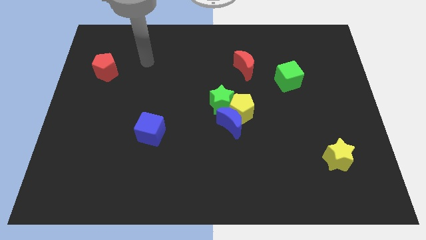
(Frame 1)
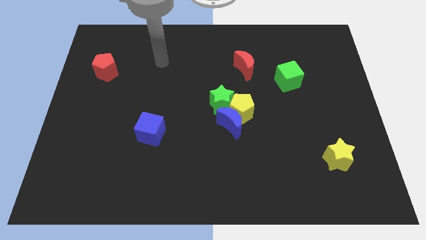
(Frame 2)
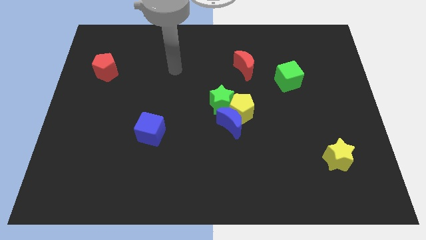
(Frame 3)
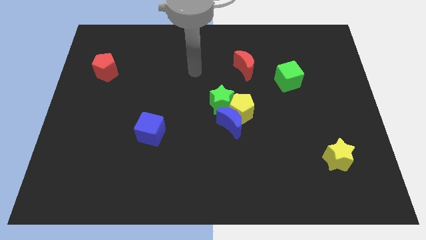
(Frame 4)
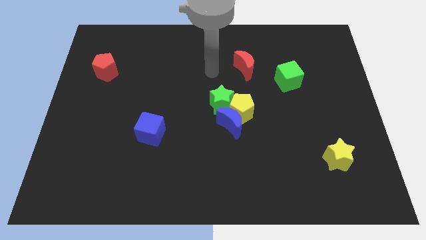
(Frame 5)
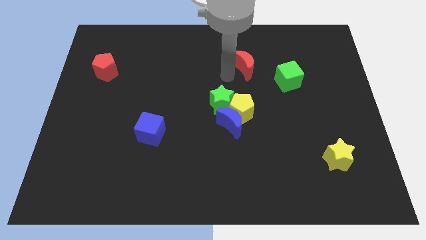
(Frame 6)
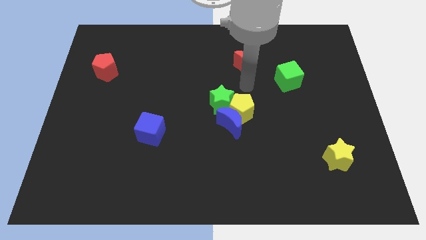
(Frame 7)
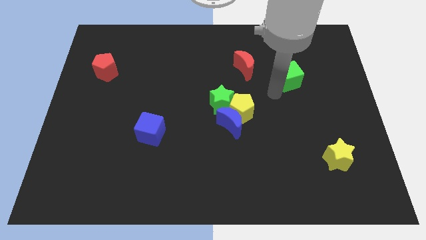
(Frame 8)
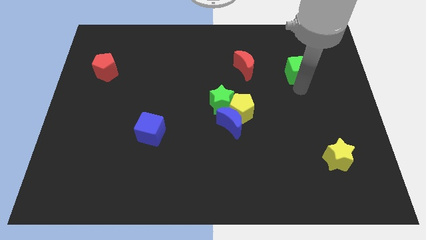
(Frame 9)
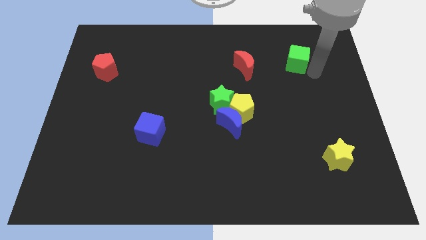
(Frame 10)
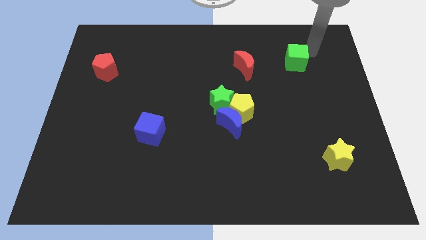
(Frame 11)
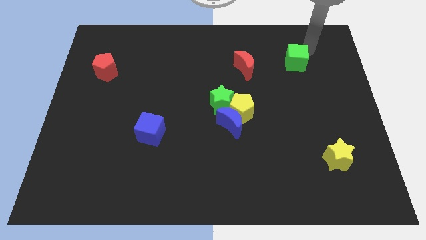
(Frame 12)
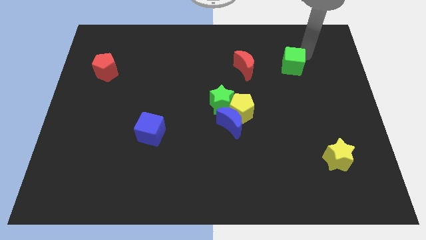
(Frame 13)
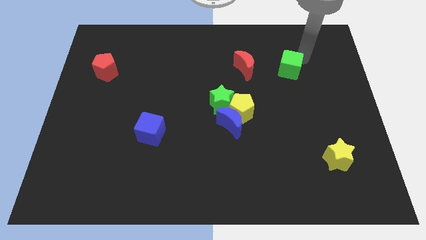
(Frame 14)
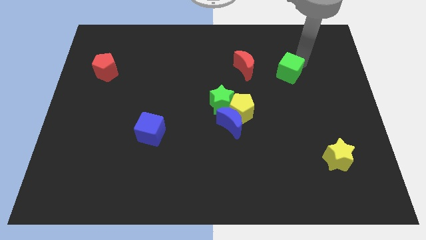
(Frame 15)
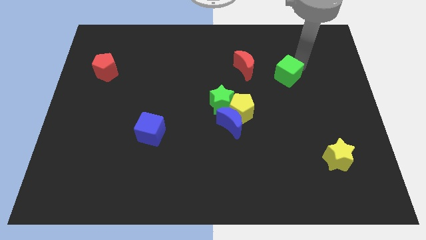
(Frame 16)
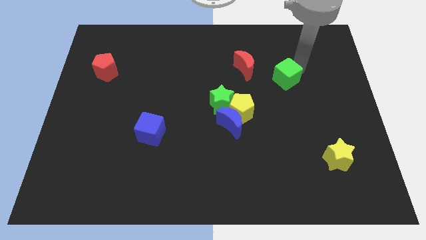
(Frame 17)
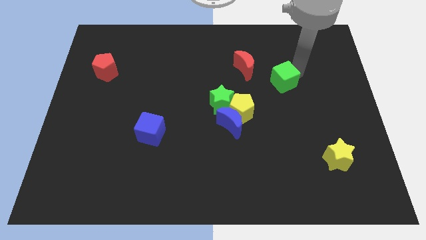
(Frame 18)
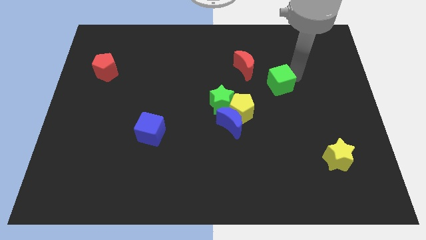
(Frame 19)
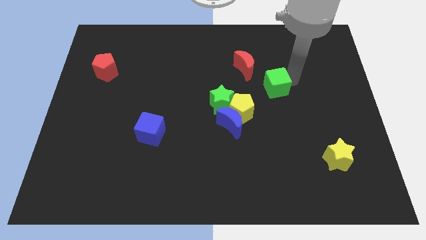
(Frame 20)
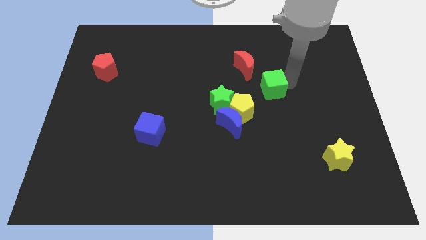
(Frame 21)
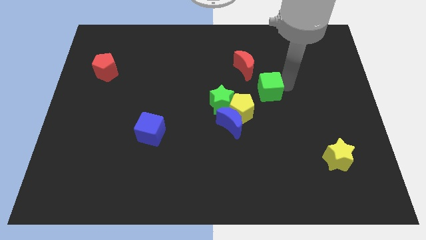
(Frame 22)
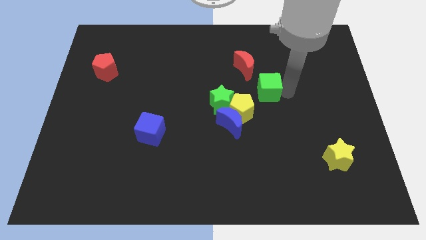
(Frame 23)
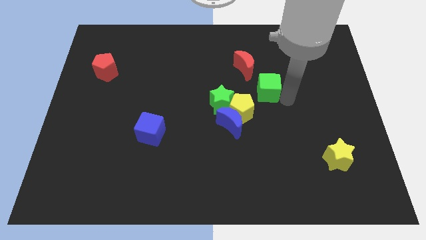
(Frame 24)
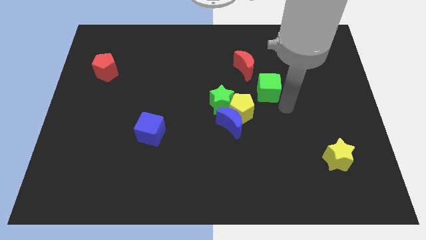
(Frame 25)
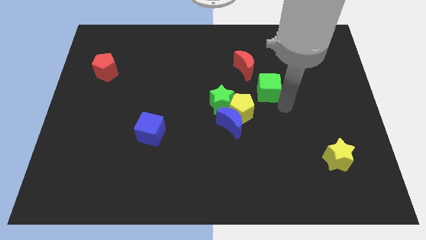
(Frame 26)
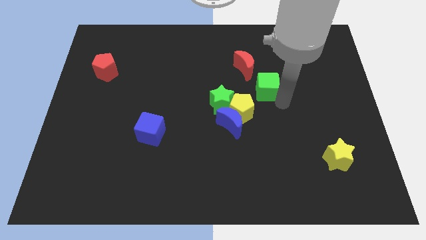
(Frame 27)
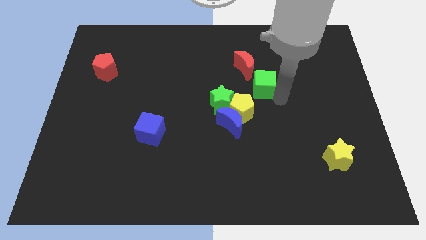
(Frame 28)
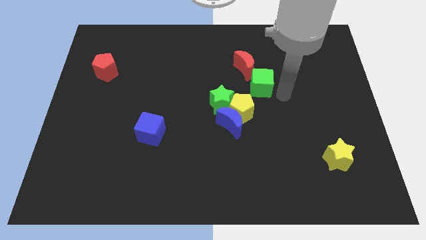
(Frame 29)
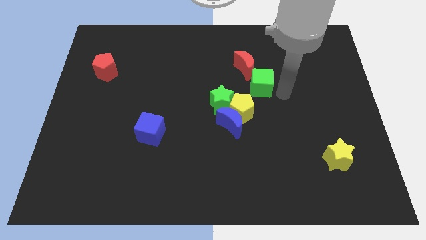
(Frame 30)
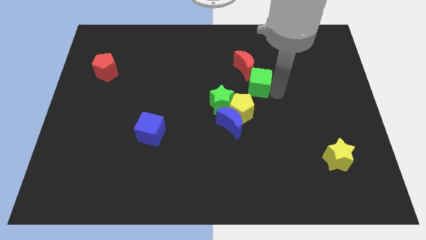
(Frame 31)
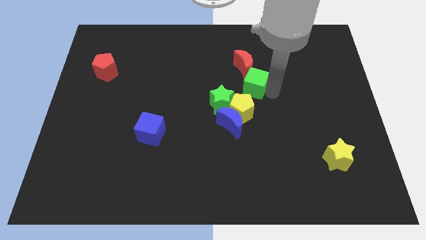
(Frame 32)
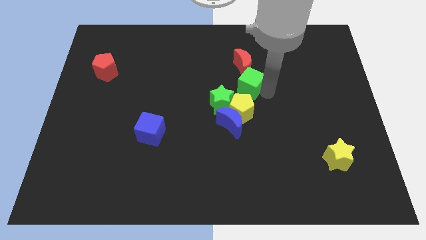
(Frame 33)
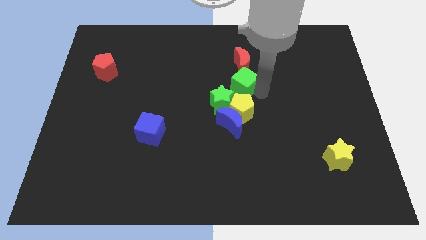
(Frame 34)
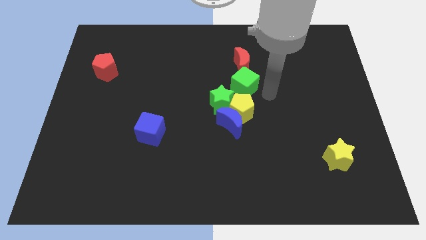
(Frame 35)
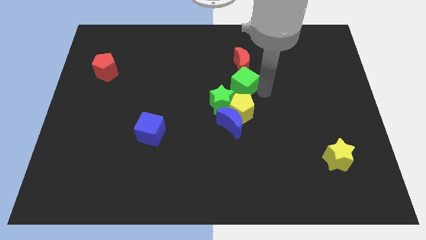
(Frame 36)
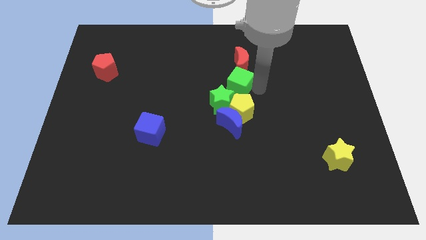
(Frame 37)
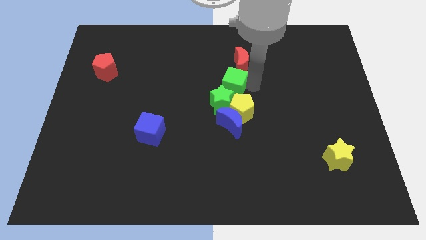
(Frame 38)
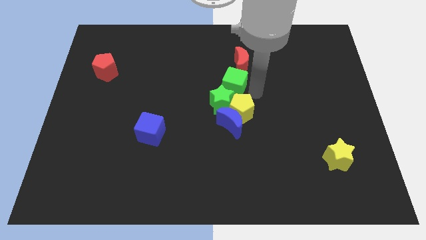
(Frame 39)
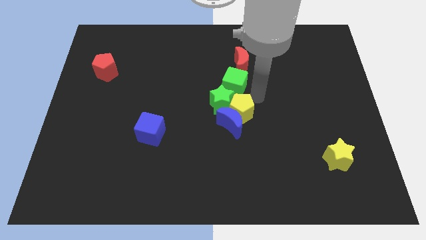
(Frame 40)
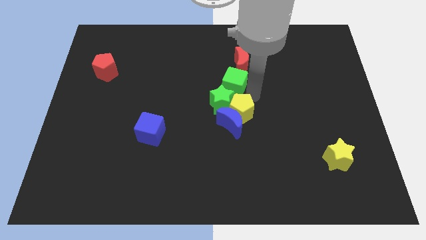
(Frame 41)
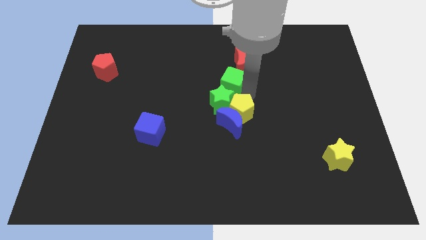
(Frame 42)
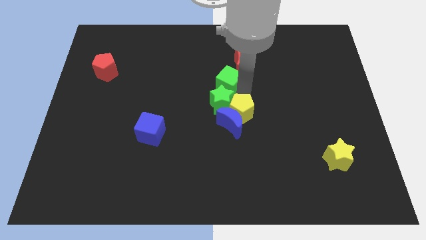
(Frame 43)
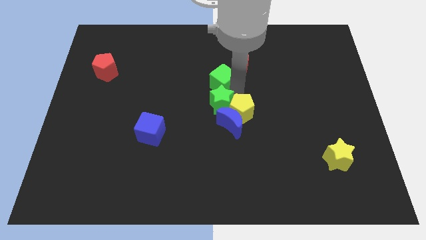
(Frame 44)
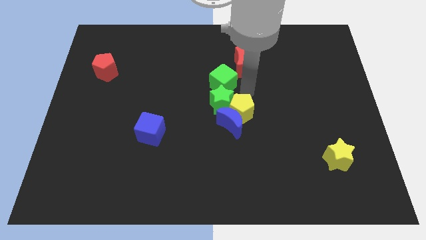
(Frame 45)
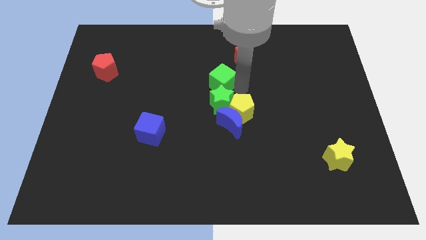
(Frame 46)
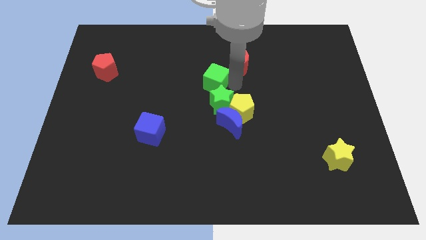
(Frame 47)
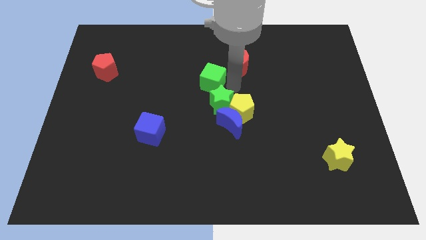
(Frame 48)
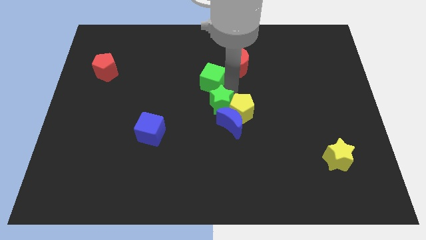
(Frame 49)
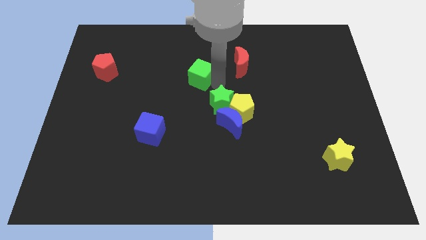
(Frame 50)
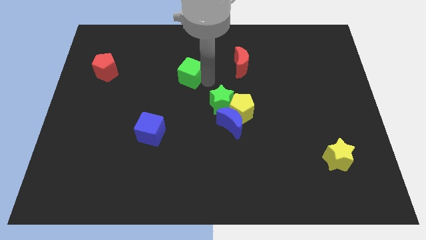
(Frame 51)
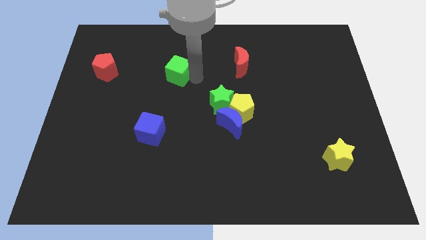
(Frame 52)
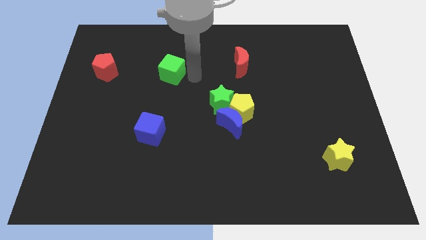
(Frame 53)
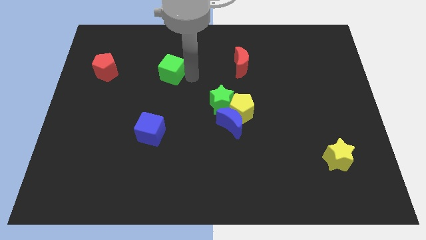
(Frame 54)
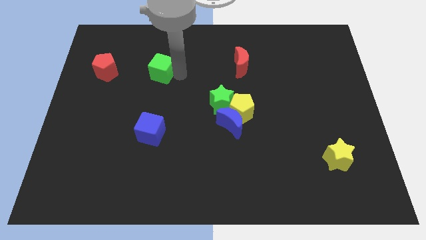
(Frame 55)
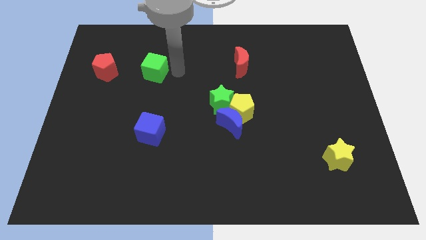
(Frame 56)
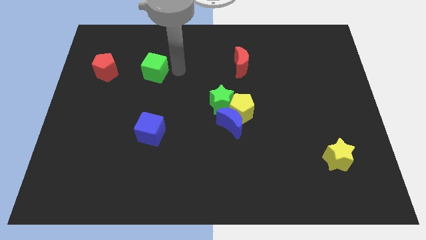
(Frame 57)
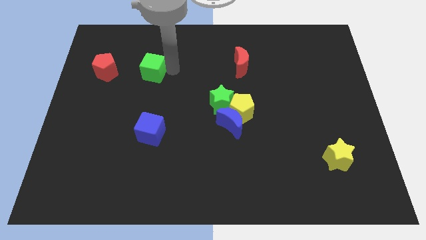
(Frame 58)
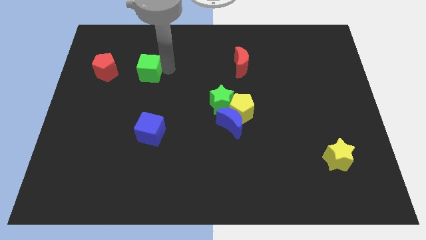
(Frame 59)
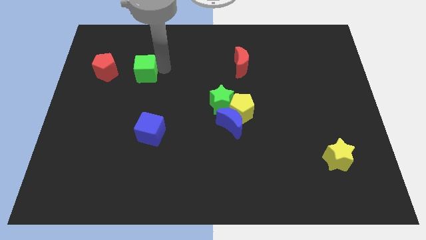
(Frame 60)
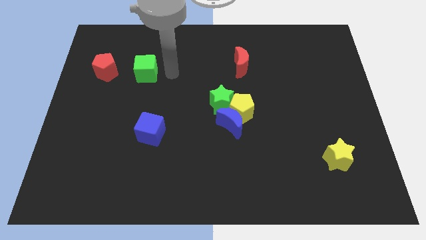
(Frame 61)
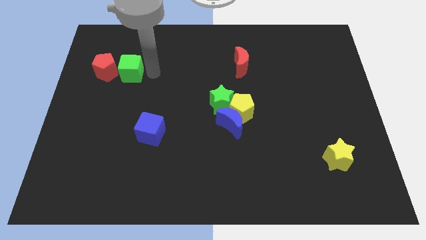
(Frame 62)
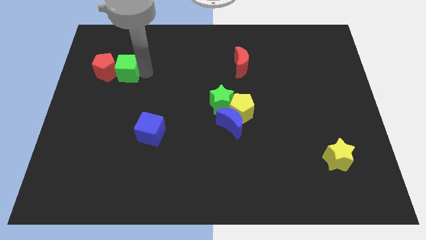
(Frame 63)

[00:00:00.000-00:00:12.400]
put the green cube close to the red pentagon

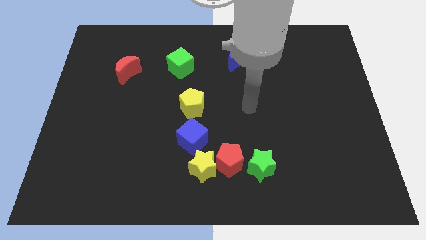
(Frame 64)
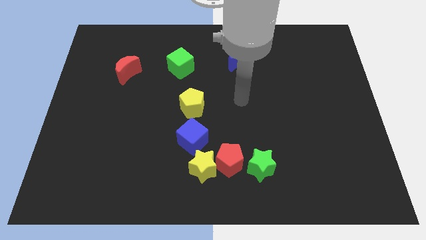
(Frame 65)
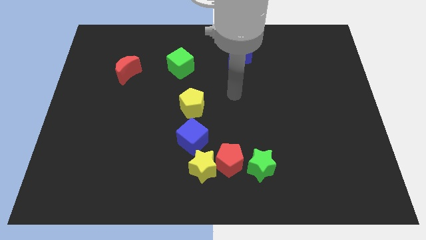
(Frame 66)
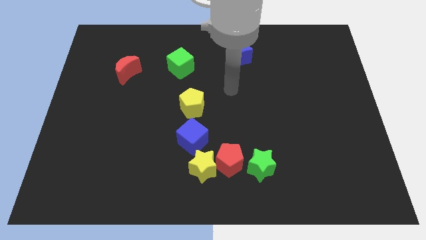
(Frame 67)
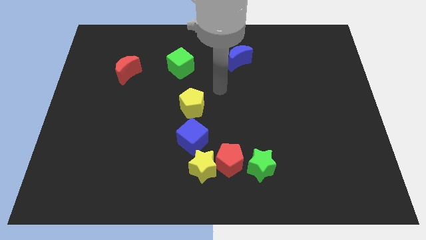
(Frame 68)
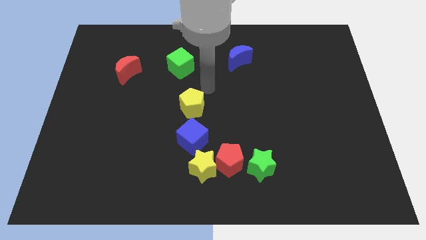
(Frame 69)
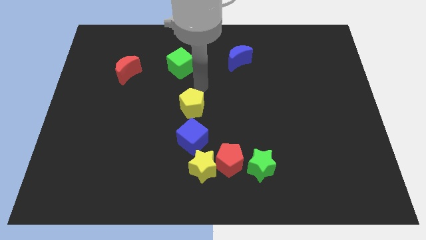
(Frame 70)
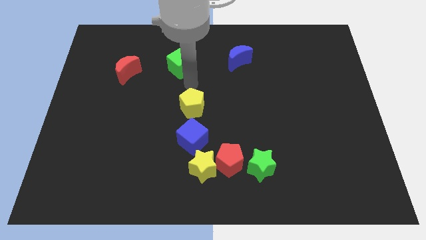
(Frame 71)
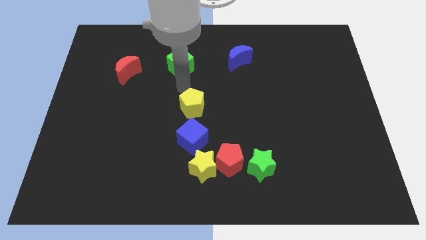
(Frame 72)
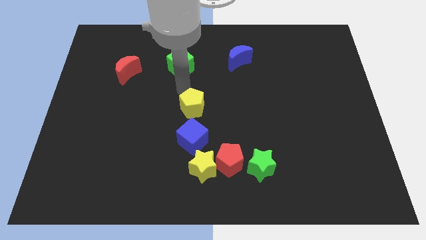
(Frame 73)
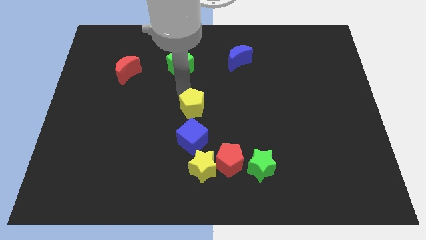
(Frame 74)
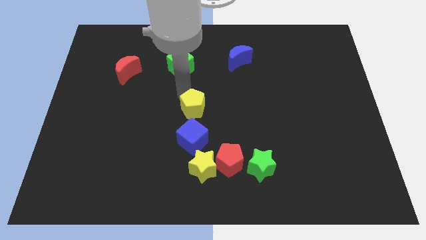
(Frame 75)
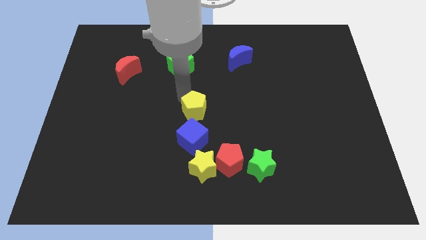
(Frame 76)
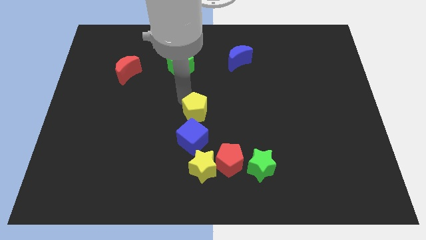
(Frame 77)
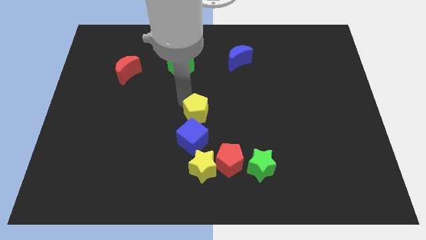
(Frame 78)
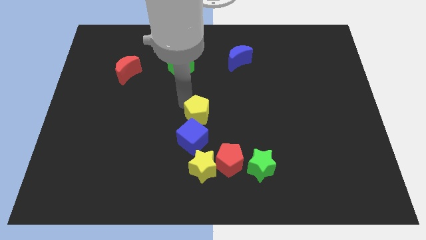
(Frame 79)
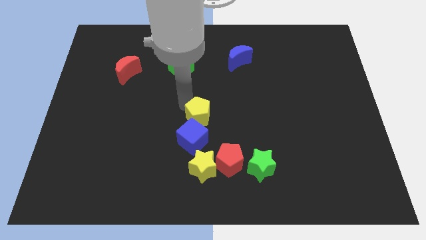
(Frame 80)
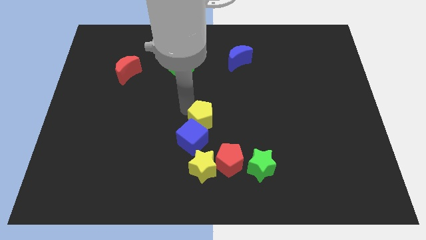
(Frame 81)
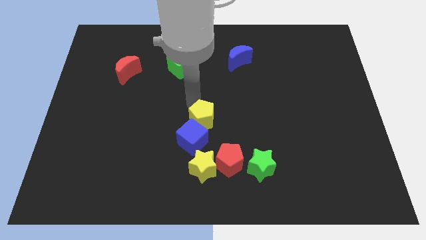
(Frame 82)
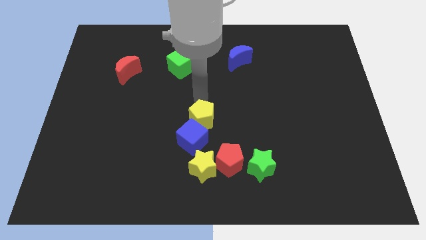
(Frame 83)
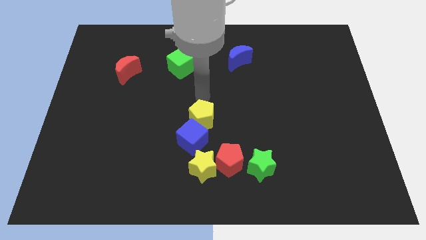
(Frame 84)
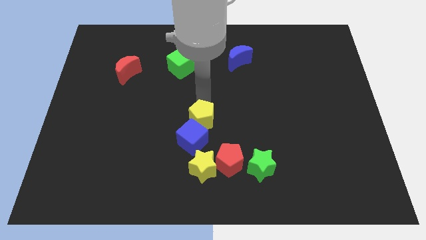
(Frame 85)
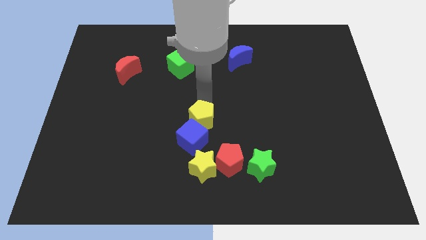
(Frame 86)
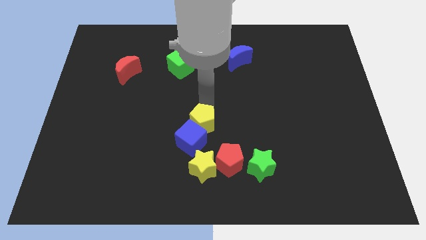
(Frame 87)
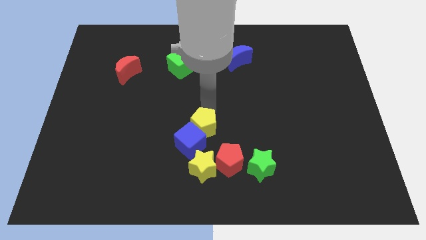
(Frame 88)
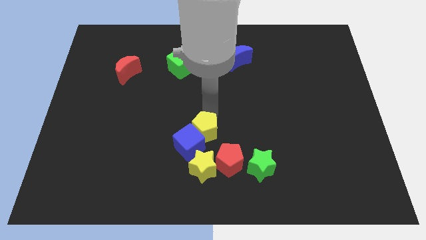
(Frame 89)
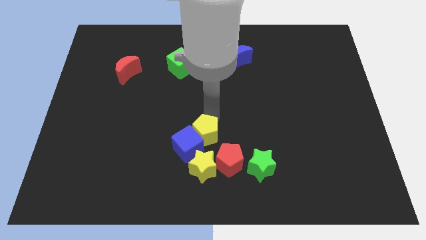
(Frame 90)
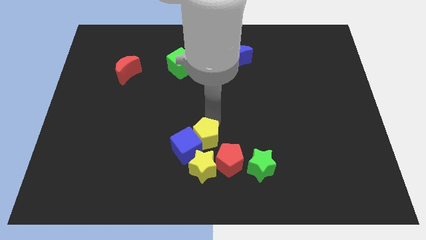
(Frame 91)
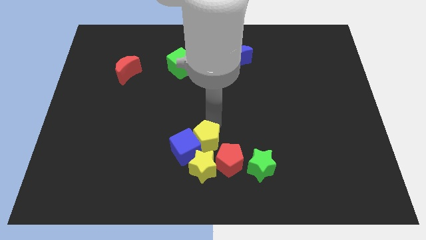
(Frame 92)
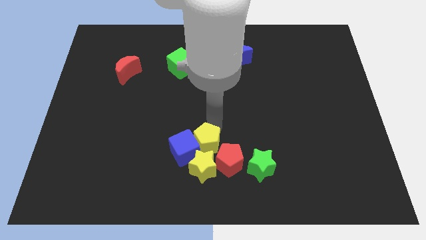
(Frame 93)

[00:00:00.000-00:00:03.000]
put the yellow pentagon next to the yellow star
